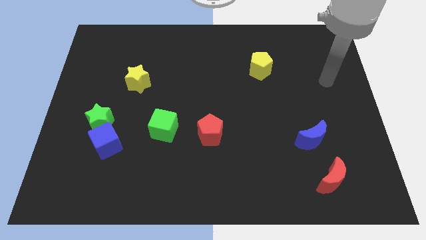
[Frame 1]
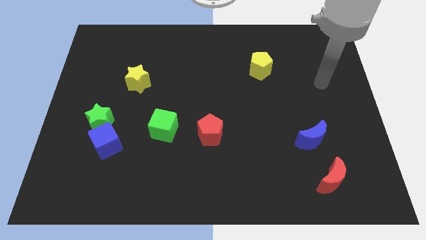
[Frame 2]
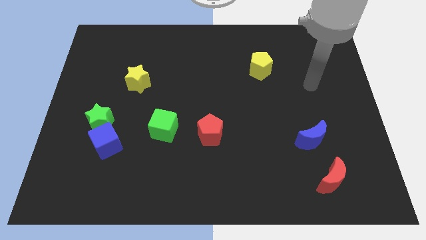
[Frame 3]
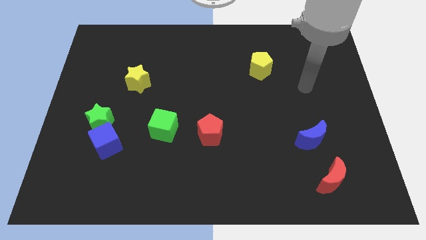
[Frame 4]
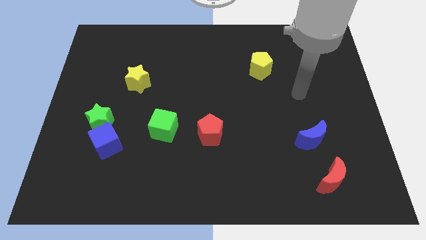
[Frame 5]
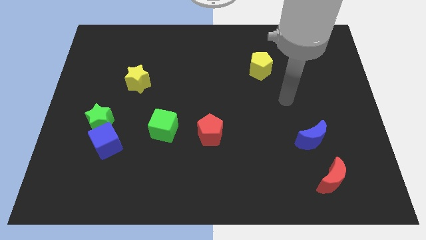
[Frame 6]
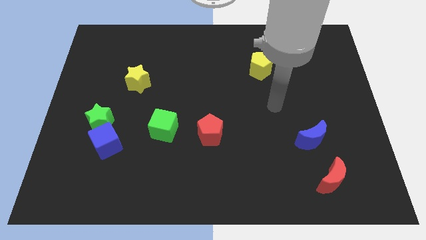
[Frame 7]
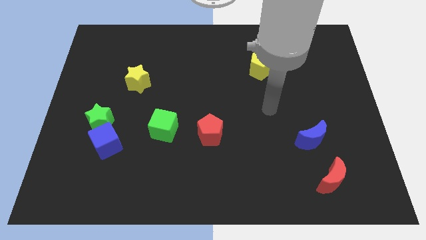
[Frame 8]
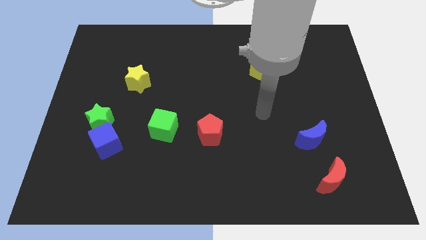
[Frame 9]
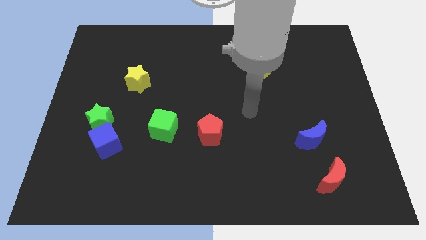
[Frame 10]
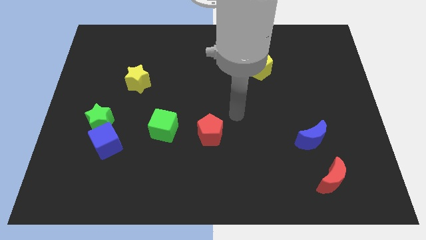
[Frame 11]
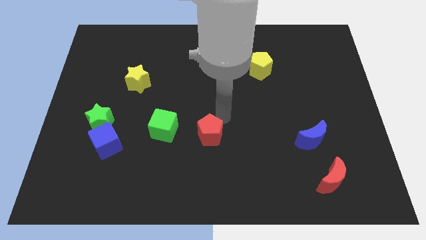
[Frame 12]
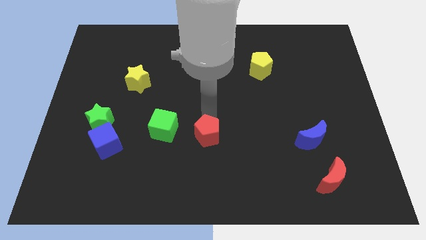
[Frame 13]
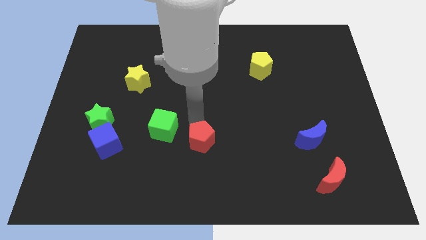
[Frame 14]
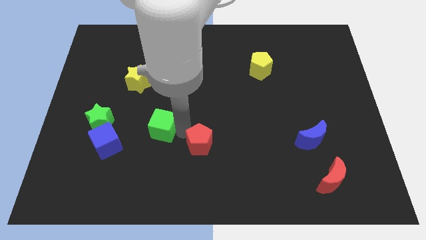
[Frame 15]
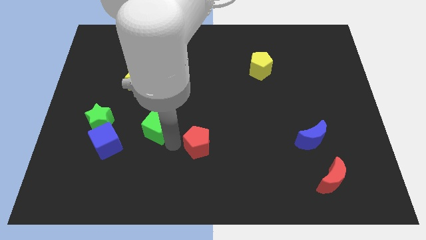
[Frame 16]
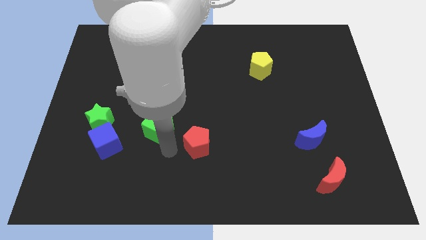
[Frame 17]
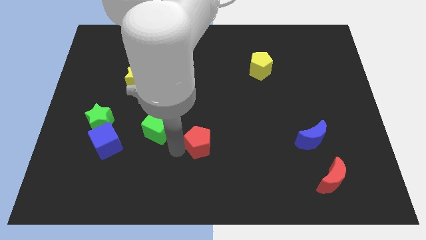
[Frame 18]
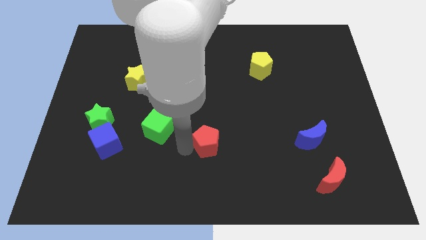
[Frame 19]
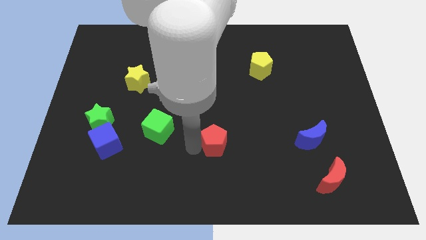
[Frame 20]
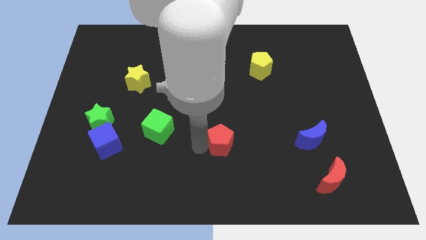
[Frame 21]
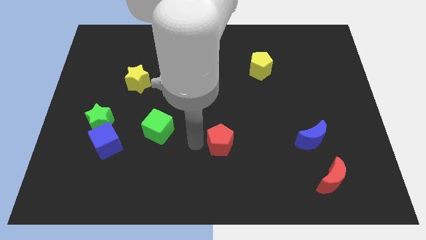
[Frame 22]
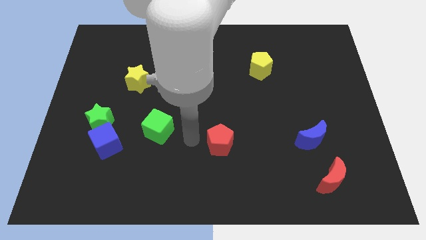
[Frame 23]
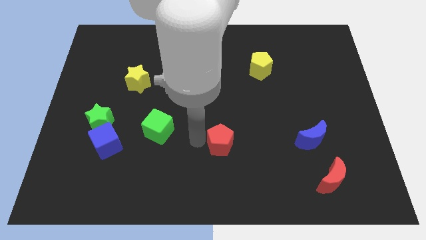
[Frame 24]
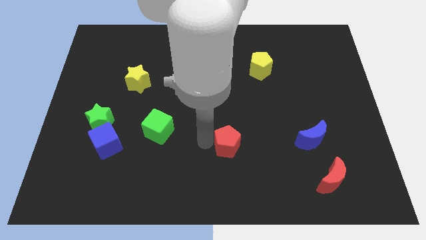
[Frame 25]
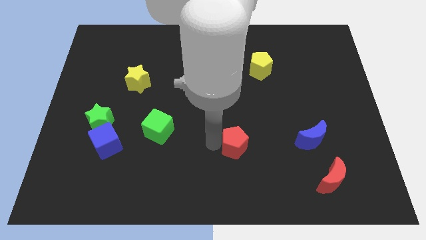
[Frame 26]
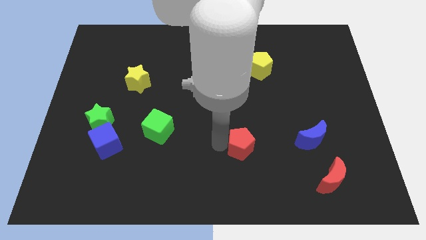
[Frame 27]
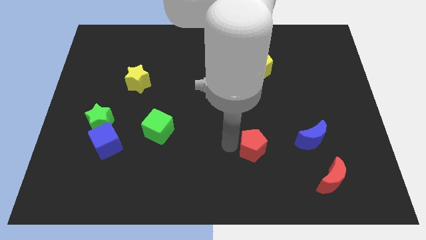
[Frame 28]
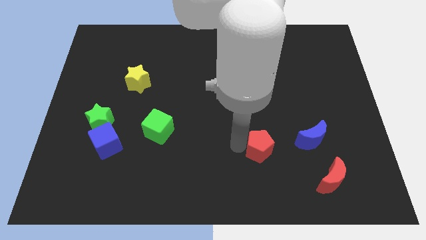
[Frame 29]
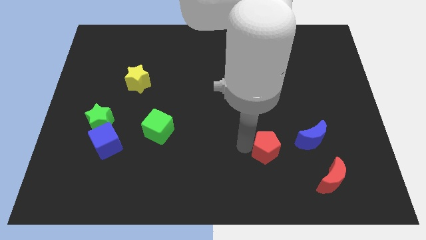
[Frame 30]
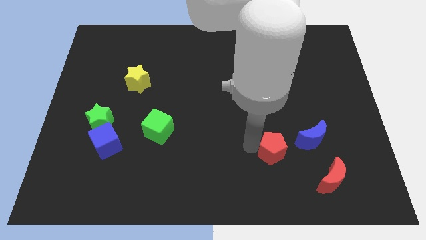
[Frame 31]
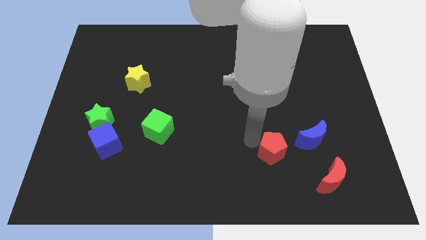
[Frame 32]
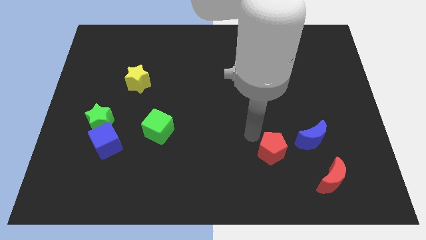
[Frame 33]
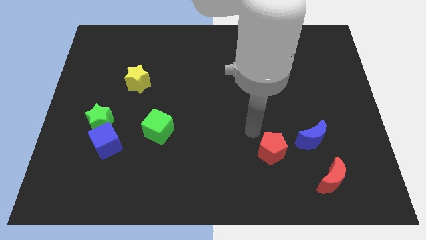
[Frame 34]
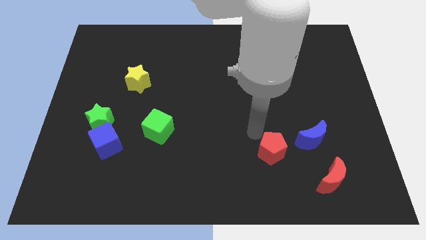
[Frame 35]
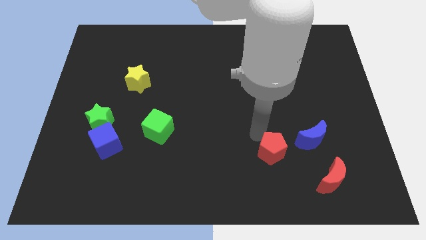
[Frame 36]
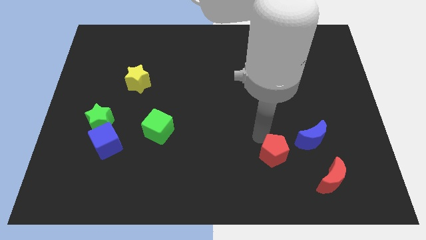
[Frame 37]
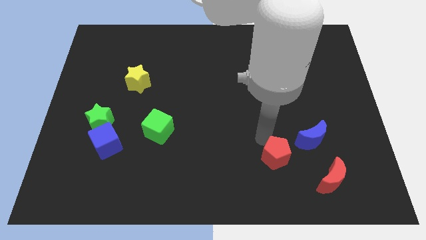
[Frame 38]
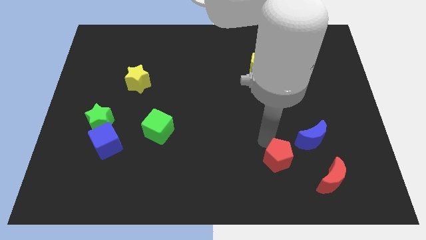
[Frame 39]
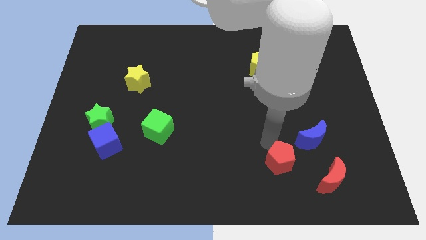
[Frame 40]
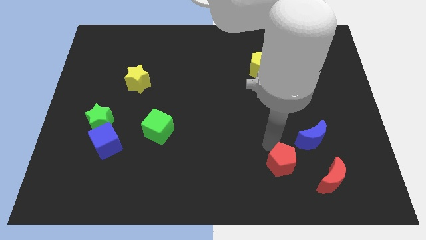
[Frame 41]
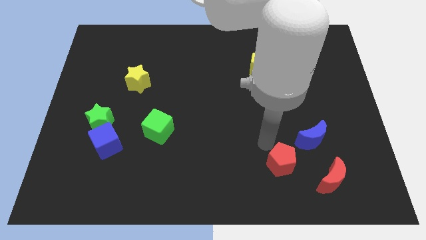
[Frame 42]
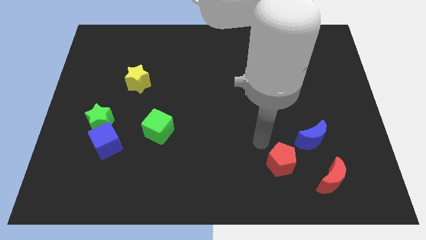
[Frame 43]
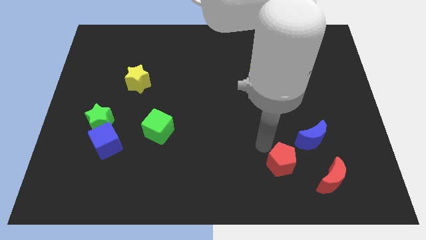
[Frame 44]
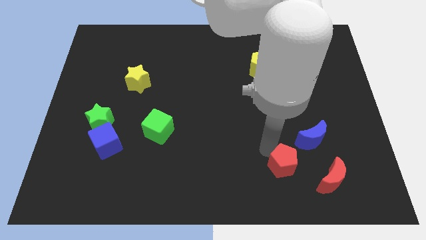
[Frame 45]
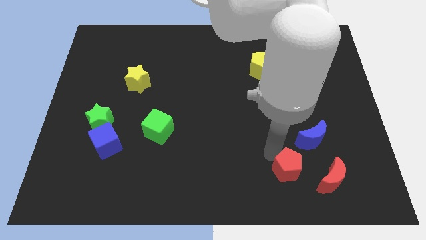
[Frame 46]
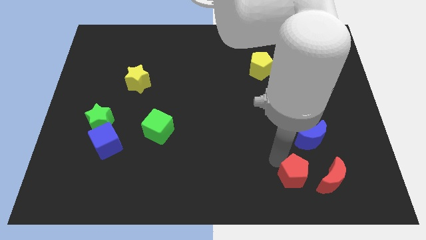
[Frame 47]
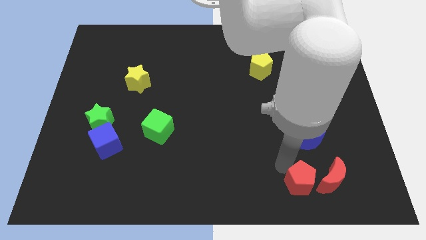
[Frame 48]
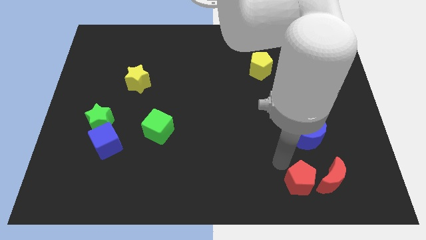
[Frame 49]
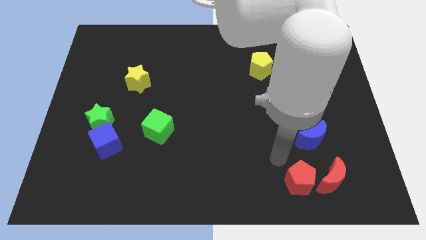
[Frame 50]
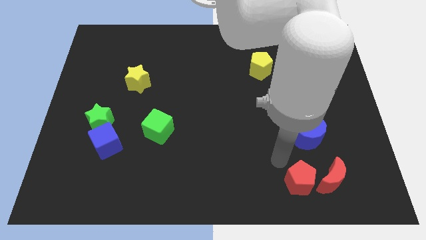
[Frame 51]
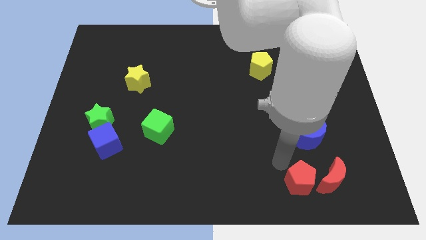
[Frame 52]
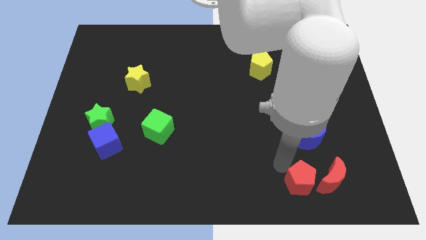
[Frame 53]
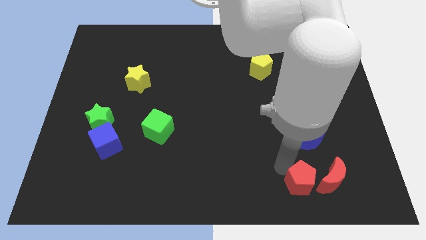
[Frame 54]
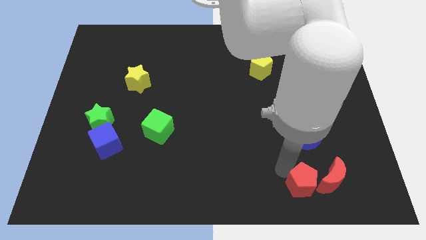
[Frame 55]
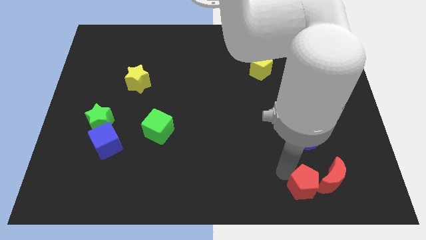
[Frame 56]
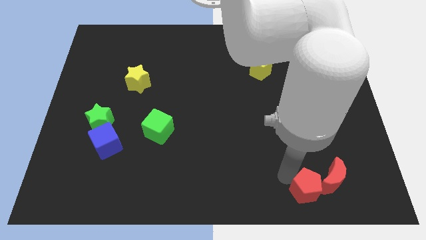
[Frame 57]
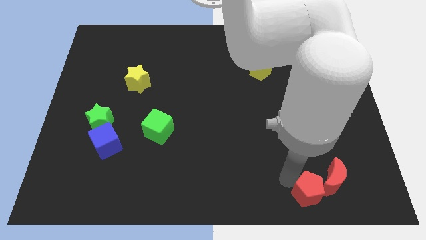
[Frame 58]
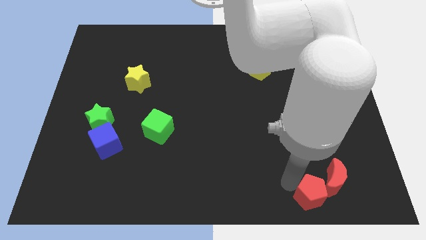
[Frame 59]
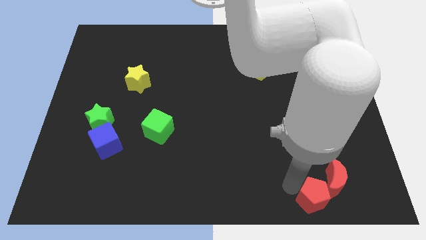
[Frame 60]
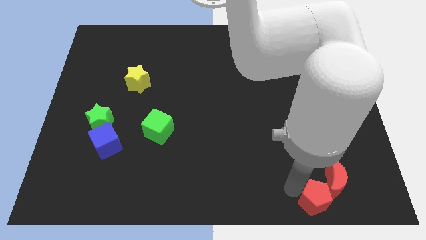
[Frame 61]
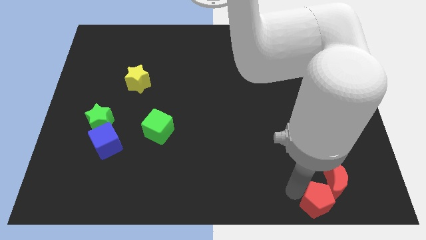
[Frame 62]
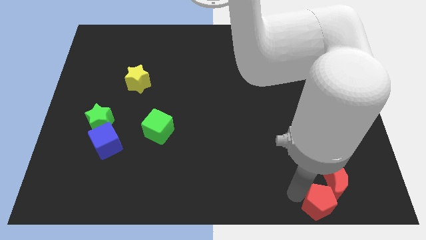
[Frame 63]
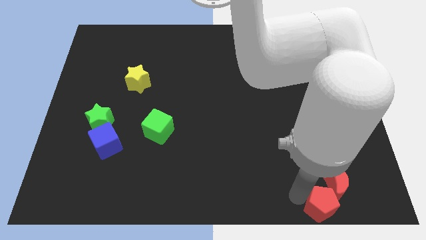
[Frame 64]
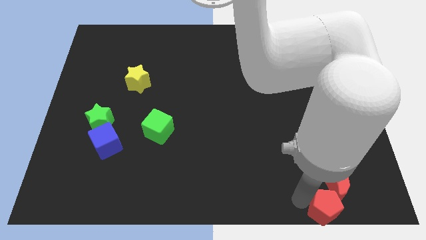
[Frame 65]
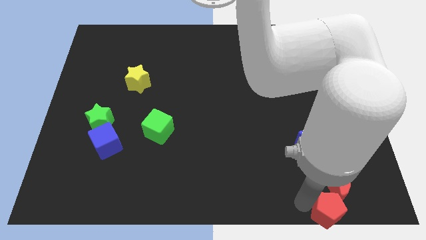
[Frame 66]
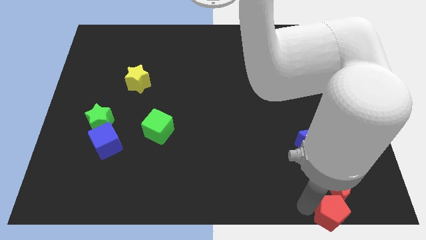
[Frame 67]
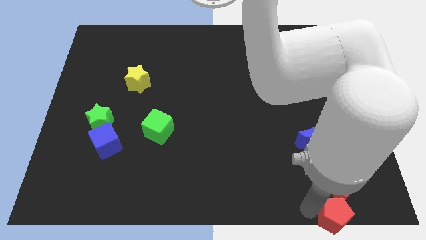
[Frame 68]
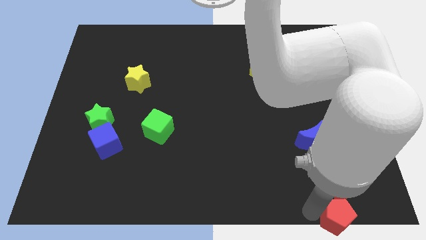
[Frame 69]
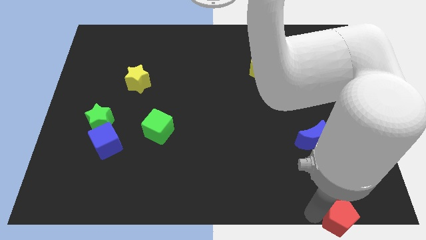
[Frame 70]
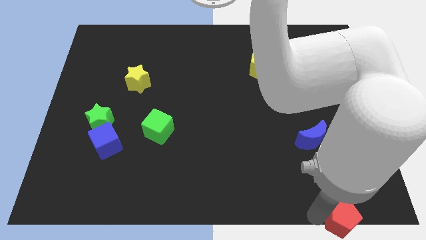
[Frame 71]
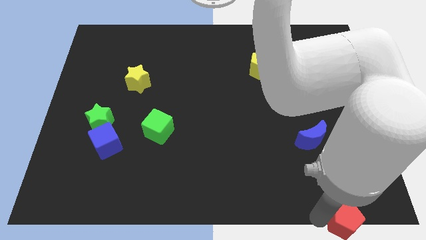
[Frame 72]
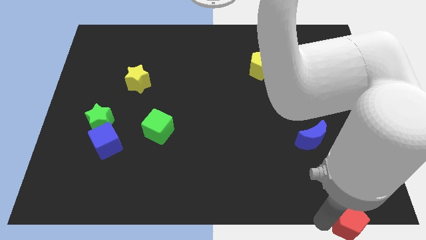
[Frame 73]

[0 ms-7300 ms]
push the red pentagon to the bottom right
